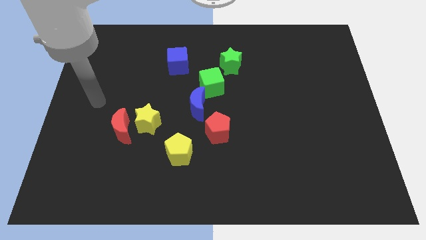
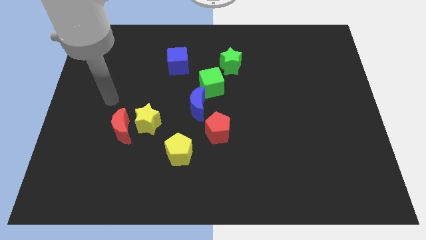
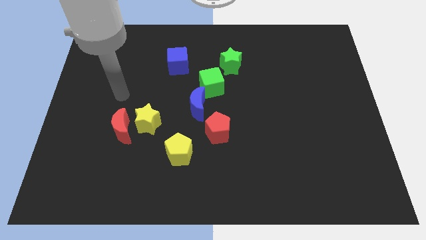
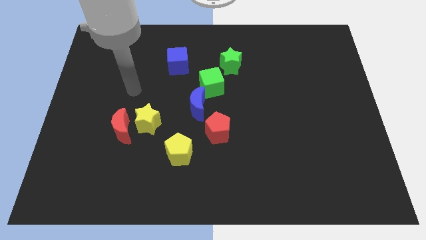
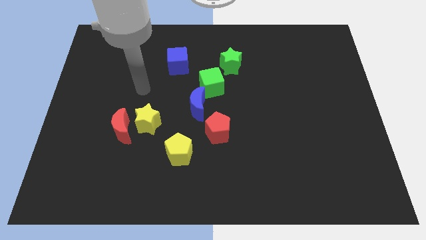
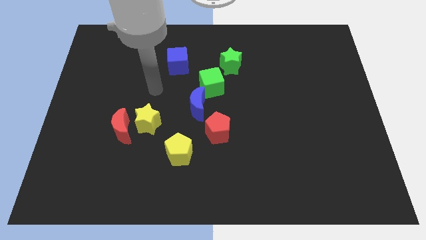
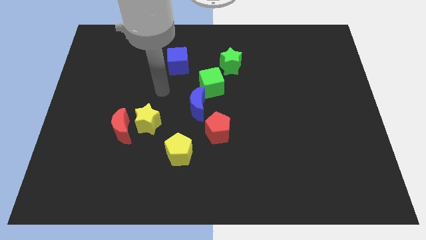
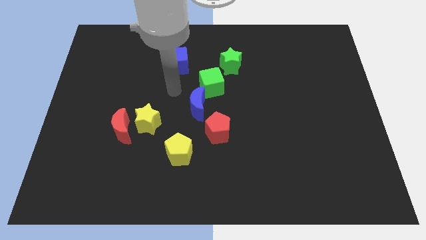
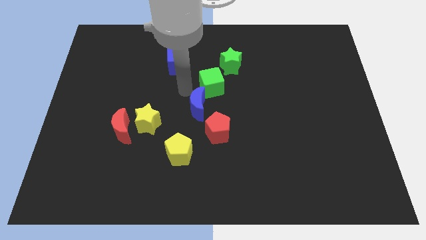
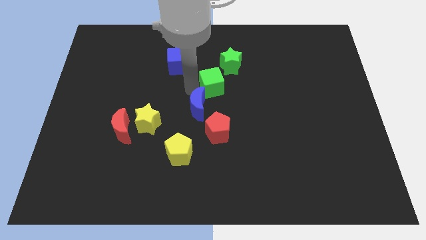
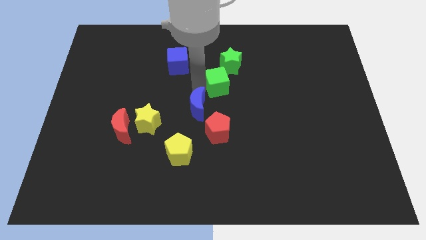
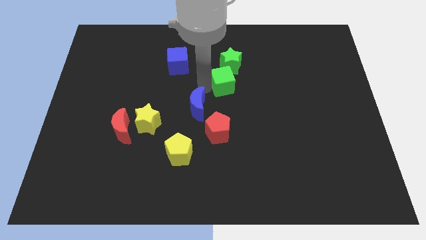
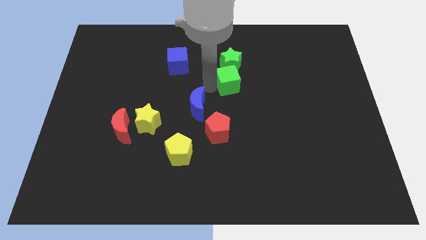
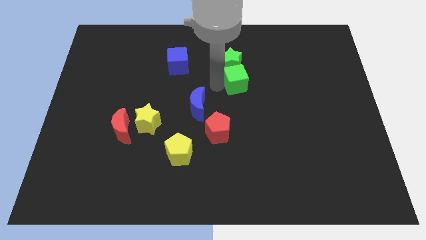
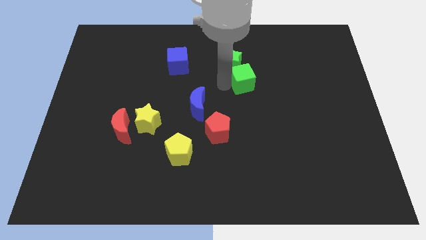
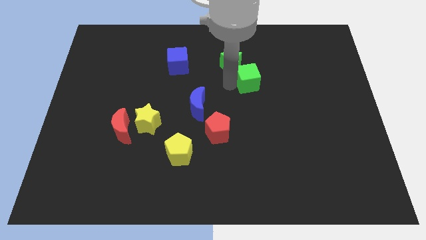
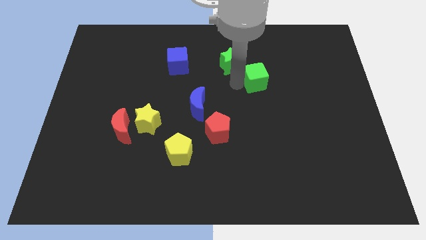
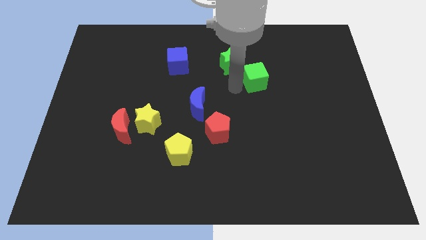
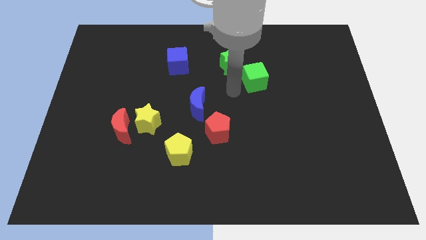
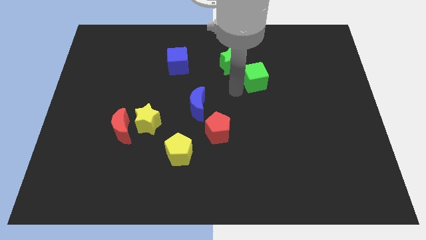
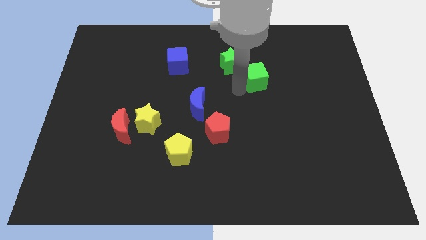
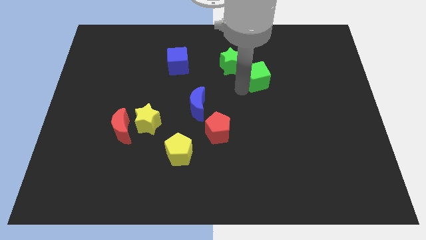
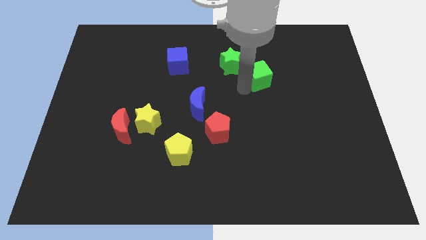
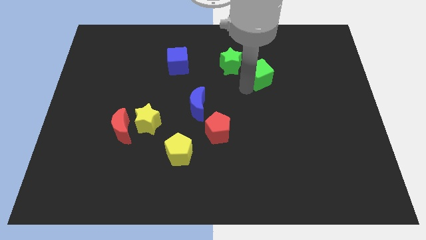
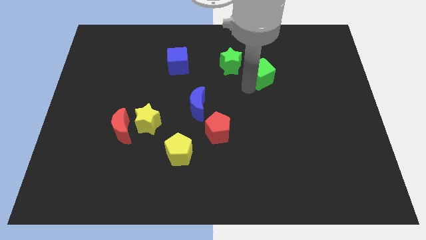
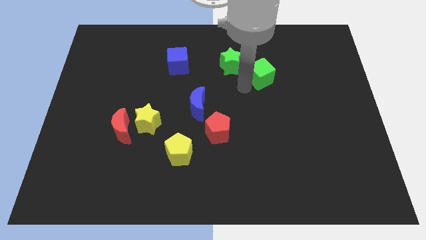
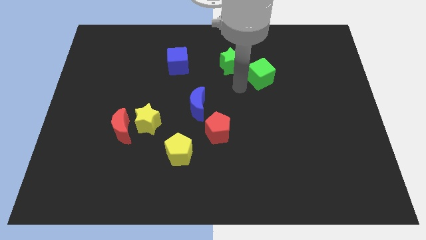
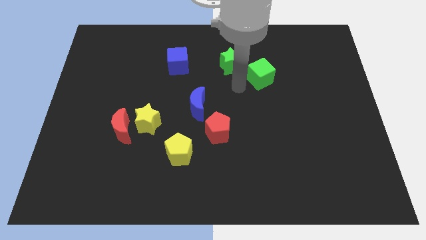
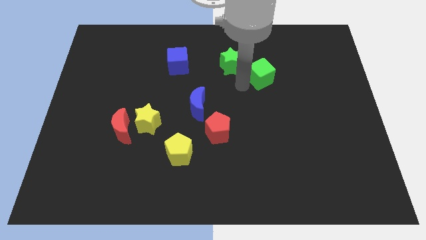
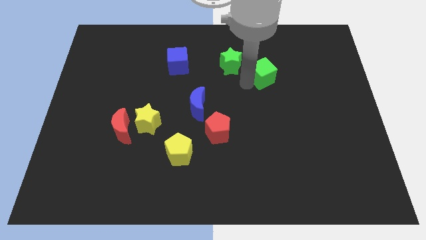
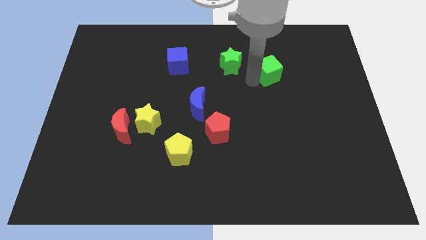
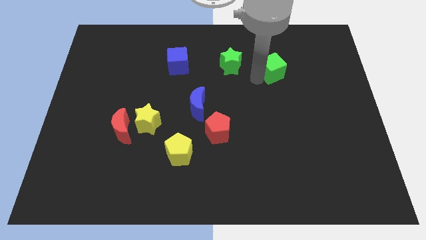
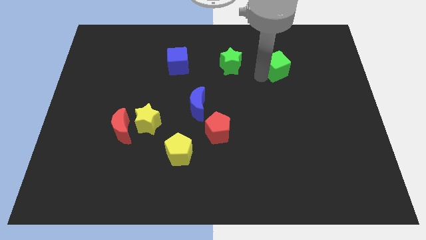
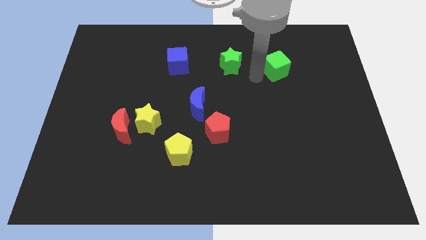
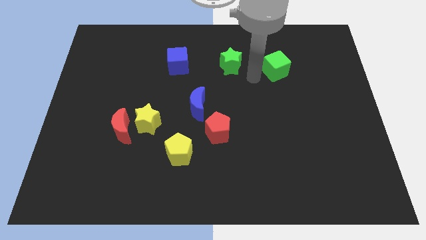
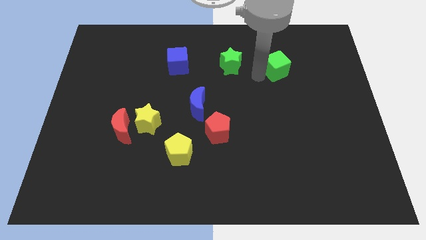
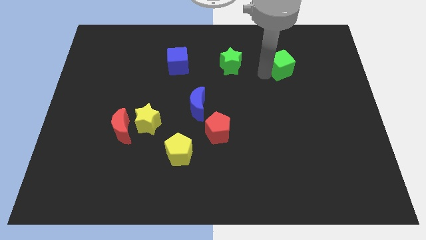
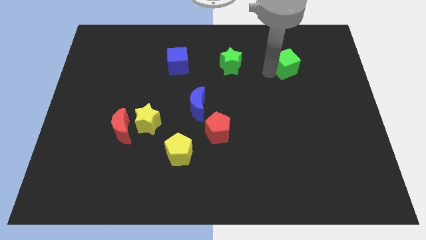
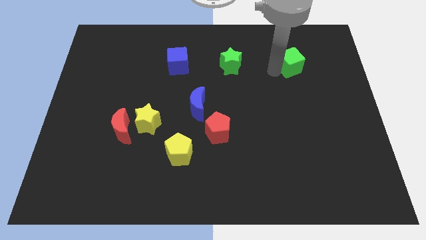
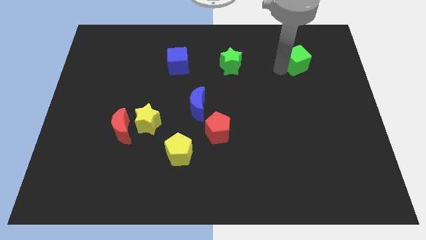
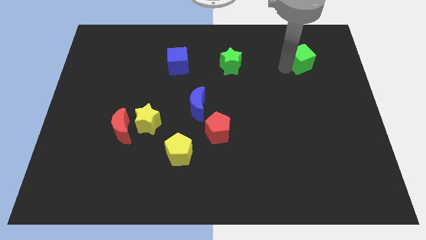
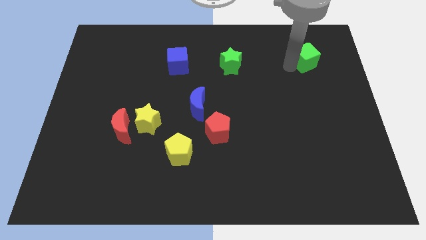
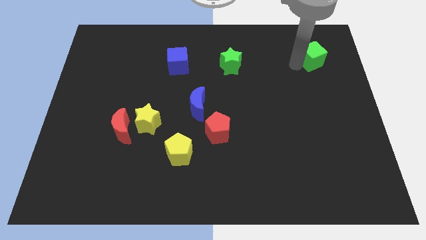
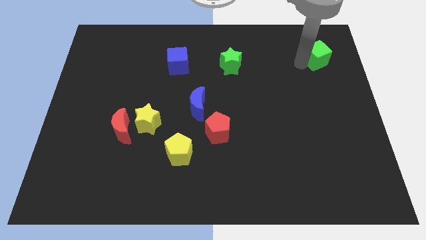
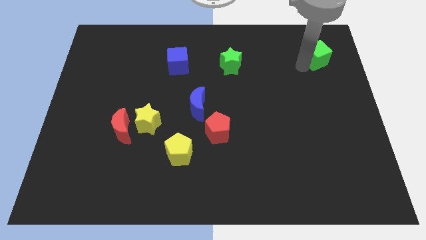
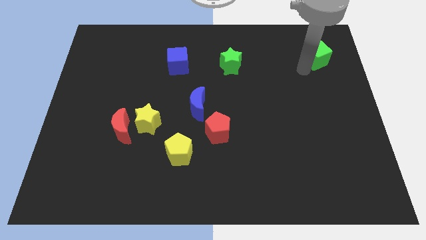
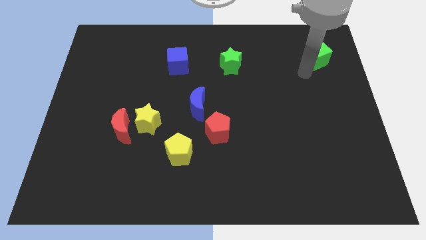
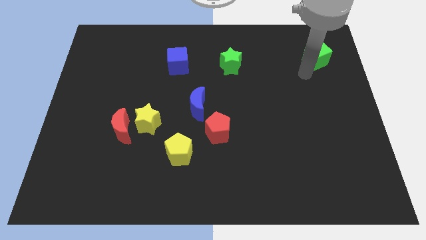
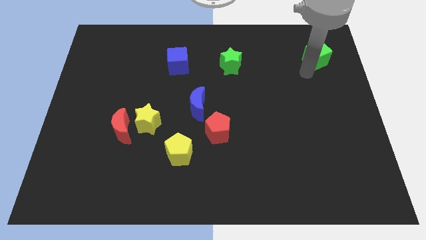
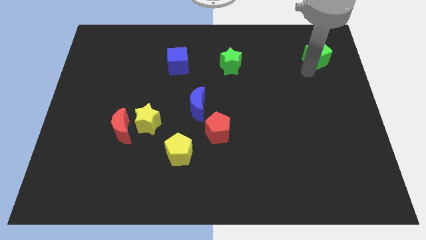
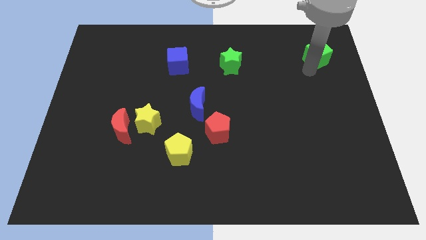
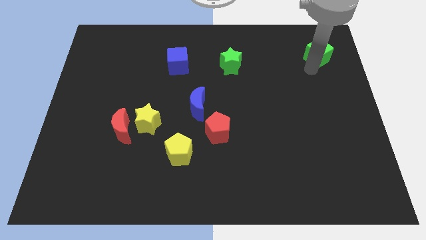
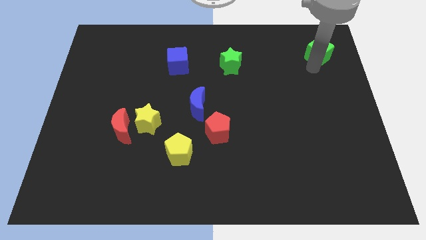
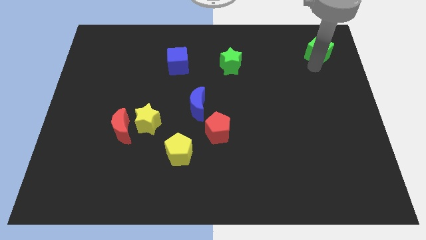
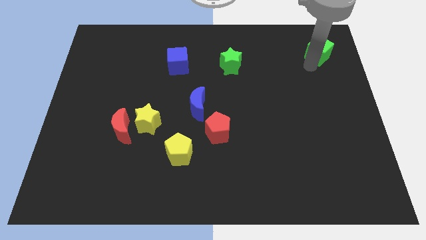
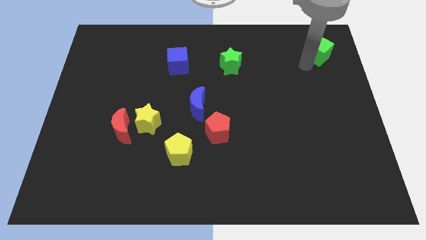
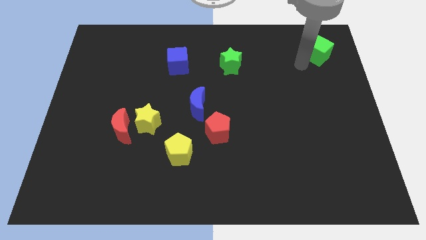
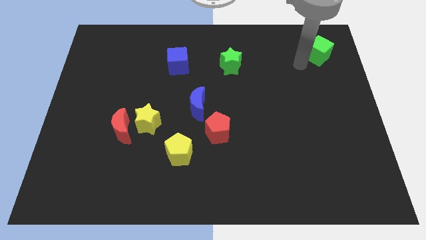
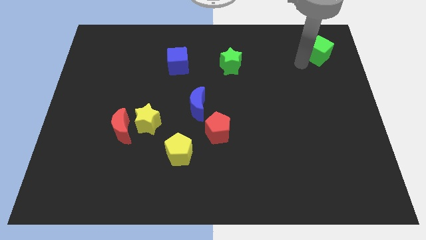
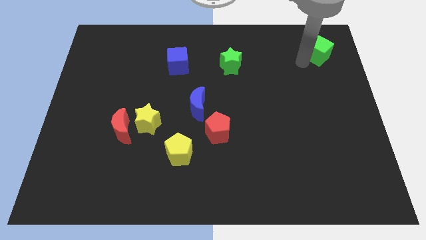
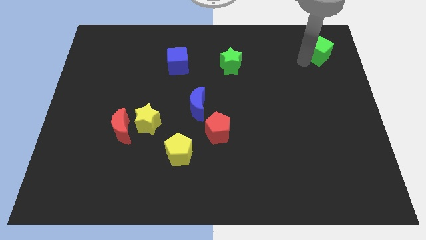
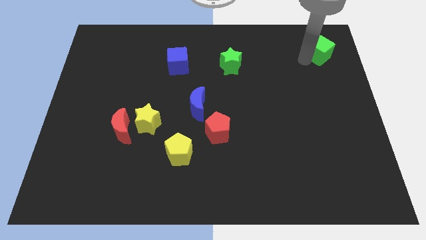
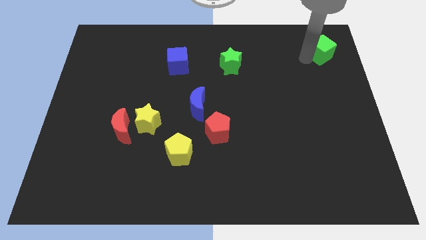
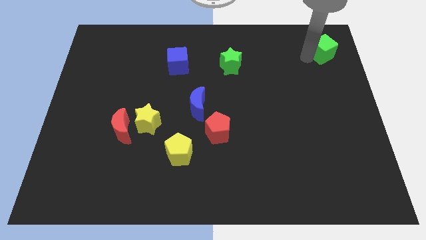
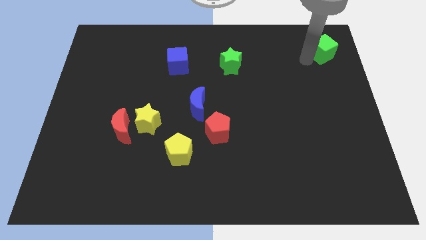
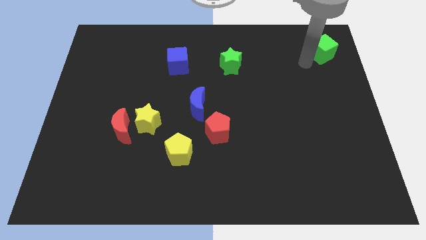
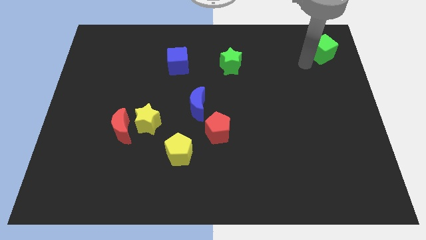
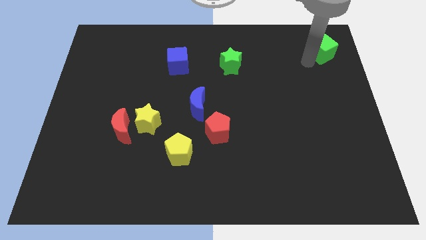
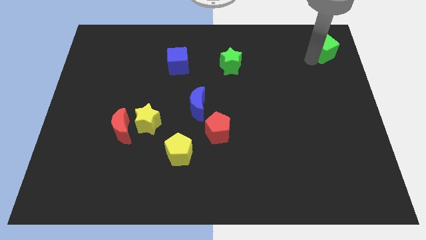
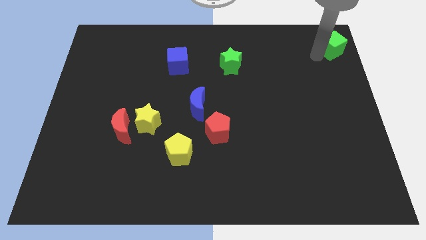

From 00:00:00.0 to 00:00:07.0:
slide the green cube to the top right corner
